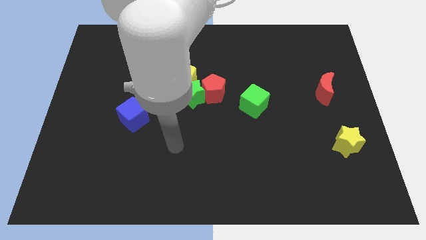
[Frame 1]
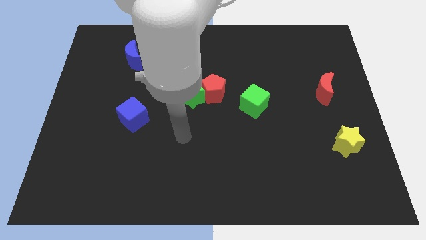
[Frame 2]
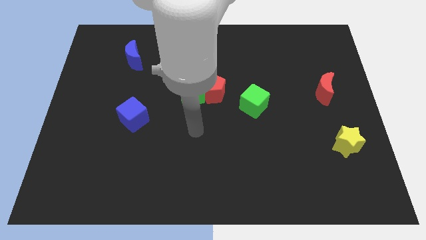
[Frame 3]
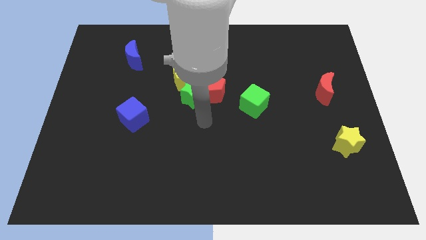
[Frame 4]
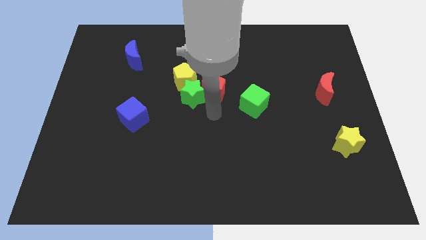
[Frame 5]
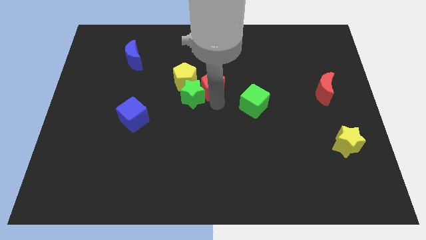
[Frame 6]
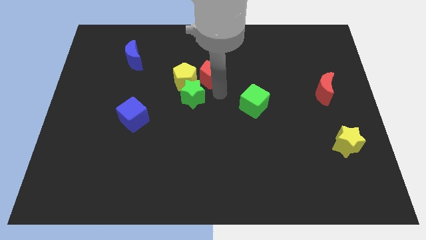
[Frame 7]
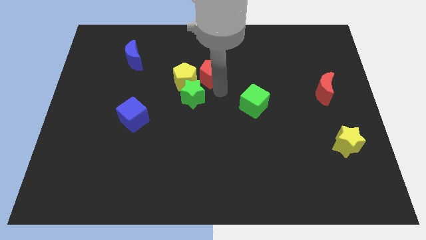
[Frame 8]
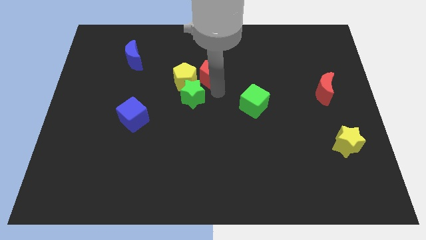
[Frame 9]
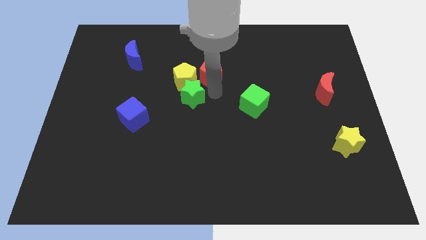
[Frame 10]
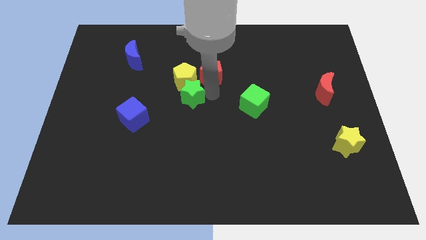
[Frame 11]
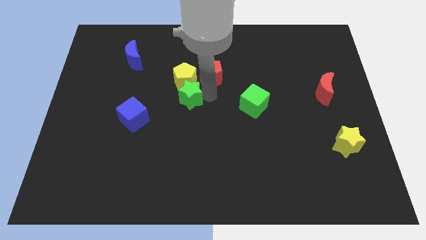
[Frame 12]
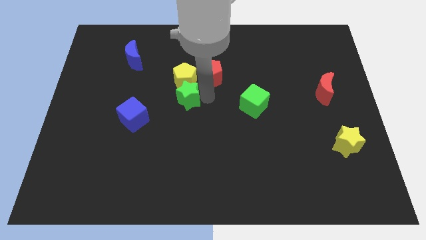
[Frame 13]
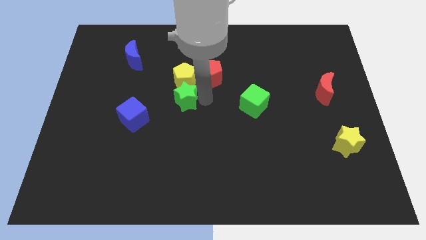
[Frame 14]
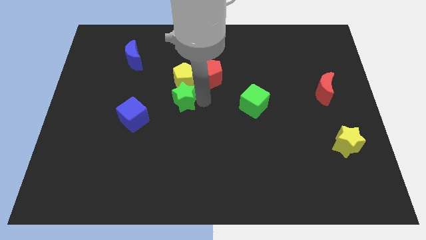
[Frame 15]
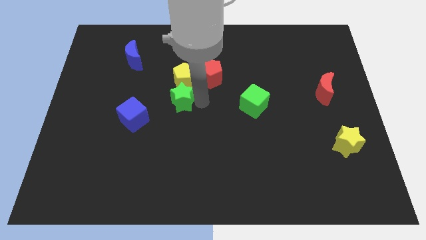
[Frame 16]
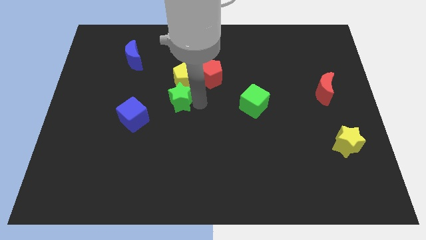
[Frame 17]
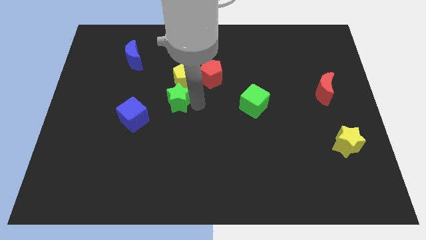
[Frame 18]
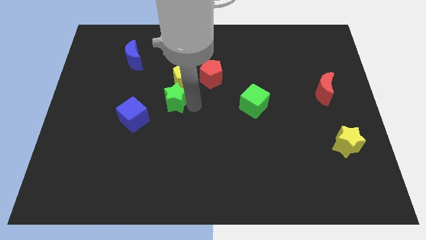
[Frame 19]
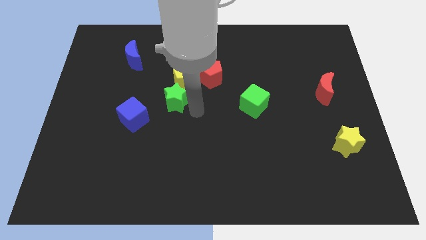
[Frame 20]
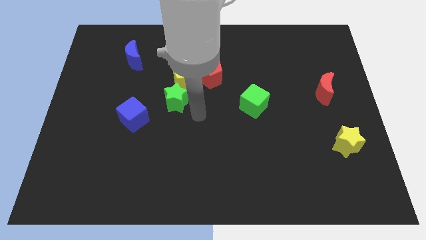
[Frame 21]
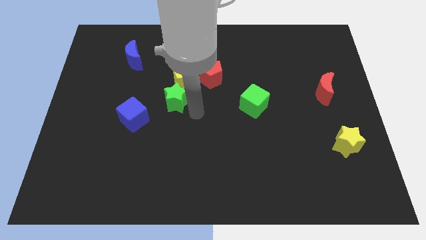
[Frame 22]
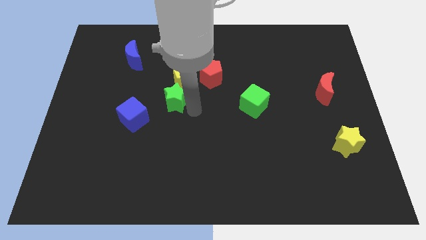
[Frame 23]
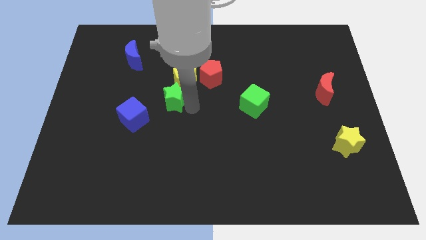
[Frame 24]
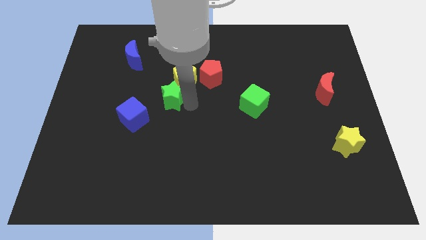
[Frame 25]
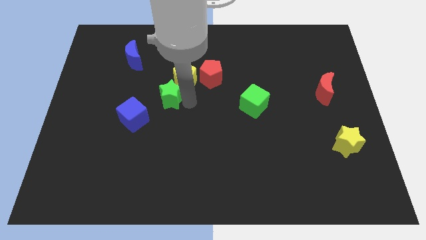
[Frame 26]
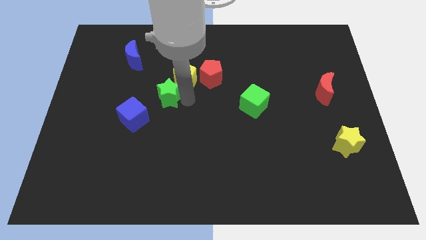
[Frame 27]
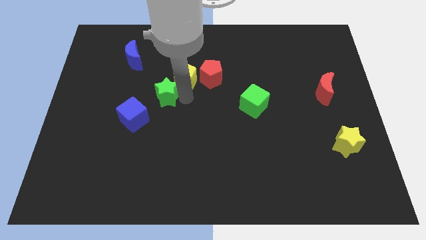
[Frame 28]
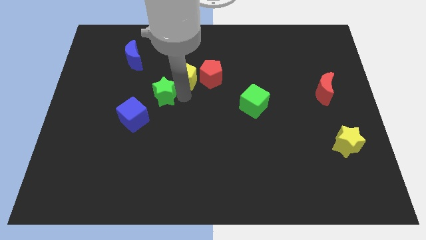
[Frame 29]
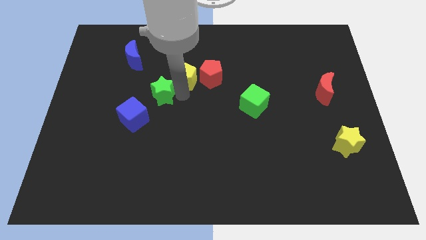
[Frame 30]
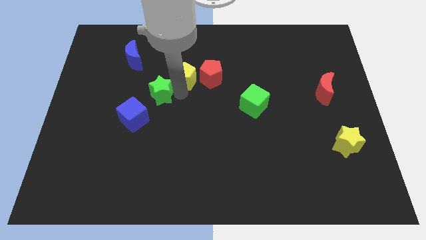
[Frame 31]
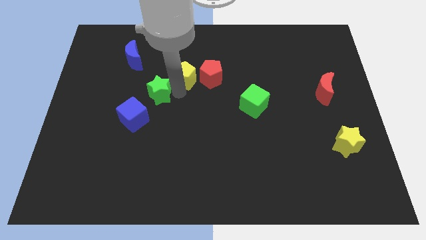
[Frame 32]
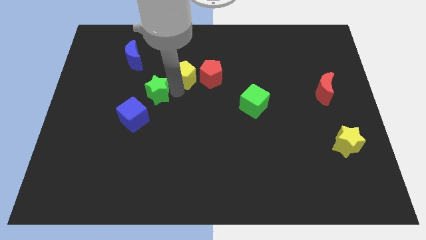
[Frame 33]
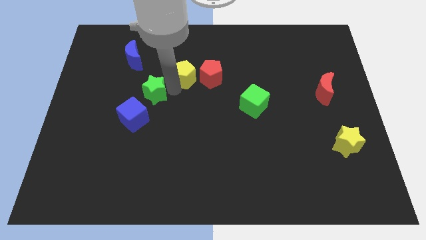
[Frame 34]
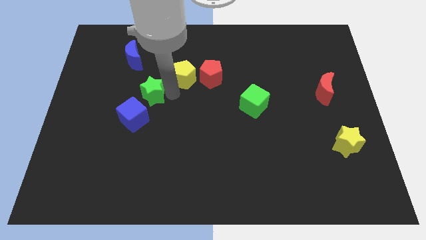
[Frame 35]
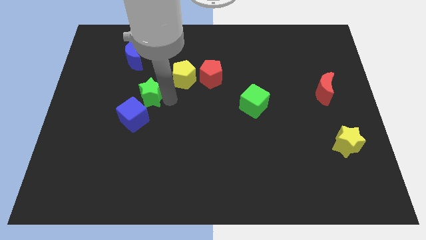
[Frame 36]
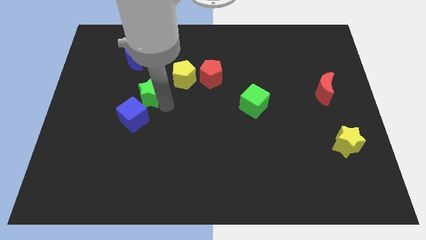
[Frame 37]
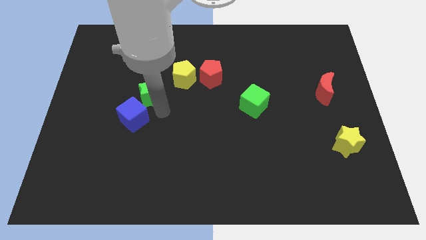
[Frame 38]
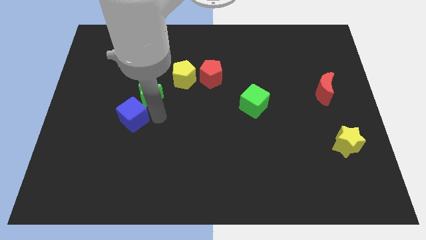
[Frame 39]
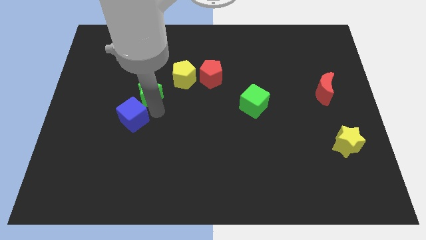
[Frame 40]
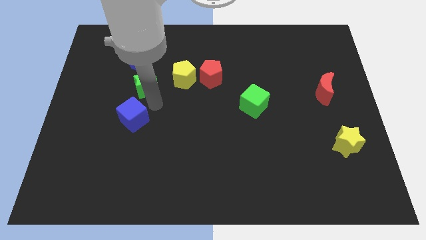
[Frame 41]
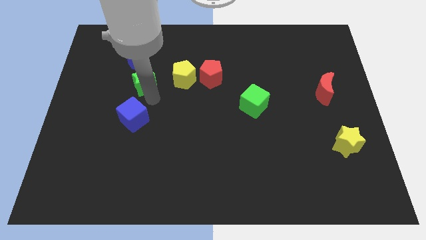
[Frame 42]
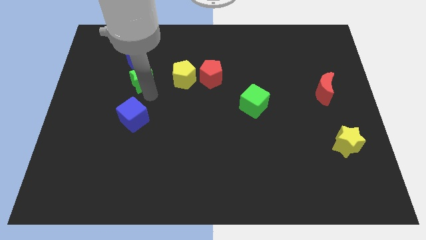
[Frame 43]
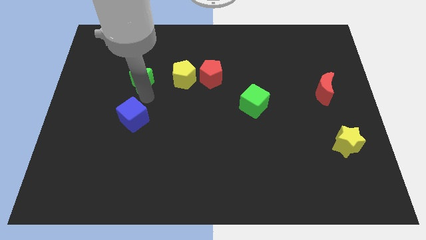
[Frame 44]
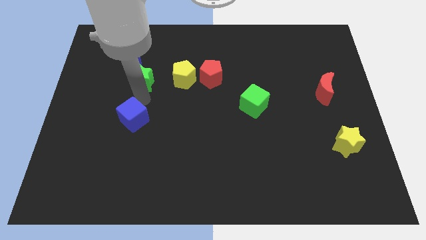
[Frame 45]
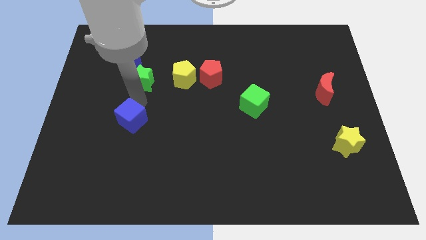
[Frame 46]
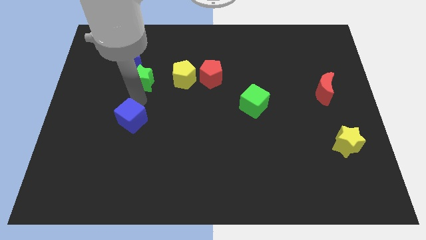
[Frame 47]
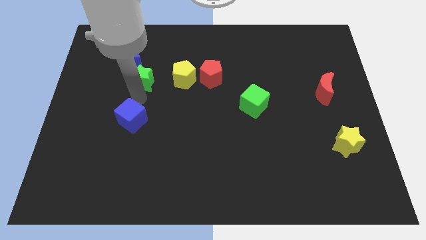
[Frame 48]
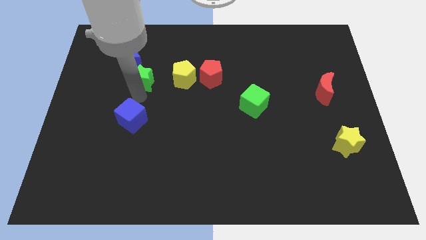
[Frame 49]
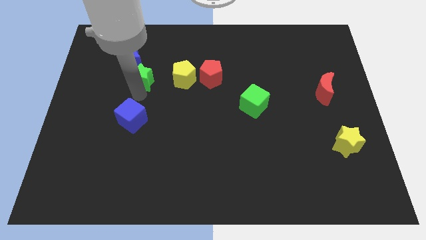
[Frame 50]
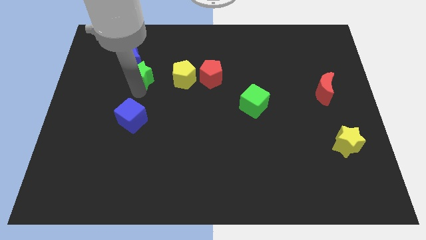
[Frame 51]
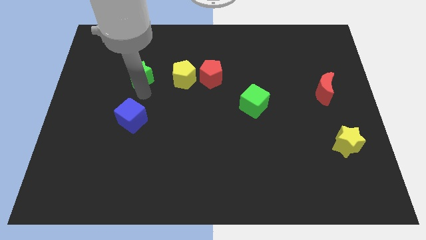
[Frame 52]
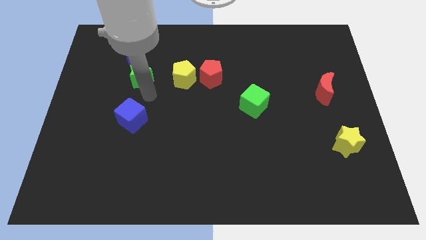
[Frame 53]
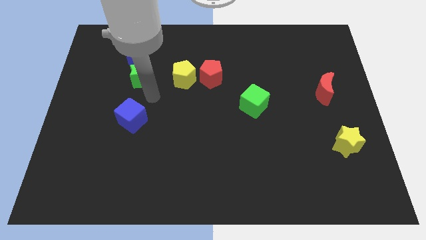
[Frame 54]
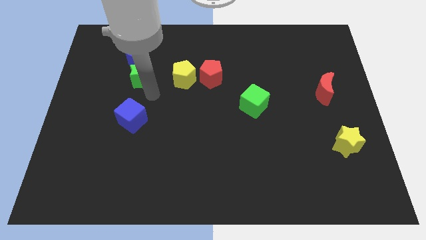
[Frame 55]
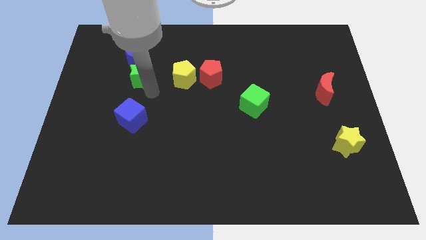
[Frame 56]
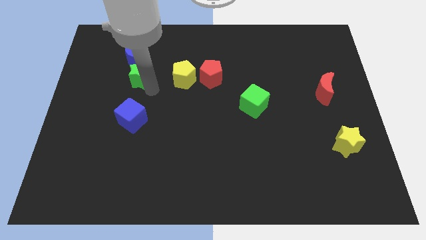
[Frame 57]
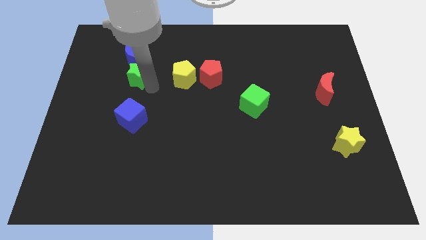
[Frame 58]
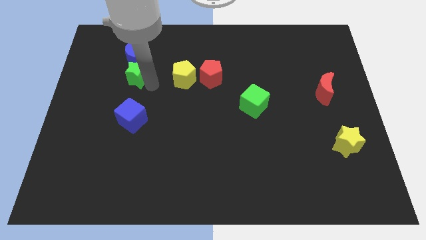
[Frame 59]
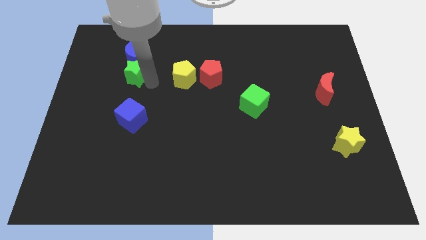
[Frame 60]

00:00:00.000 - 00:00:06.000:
push the green star close to the blue moon
